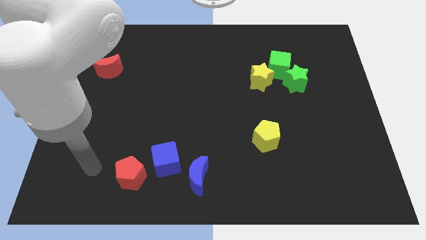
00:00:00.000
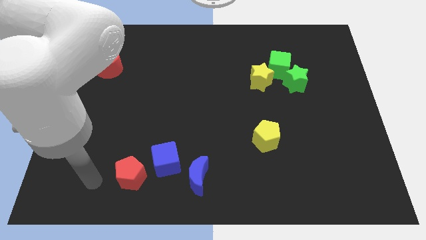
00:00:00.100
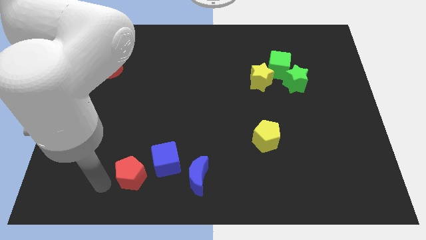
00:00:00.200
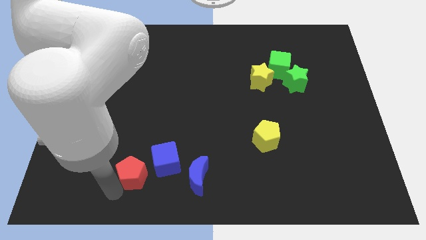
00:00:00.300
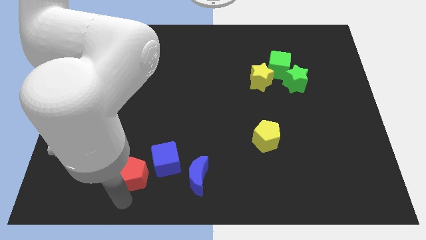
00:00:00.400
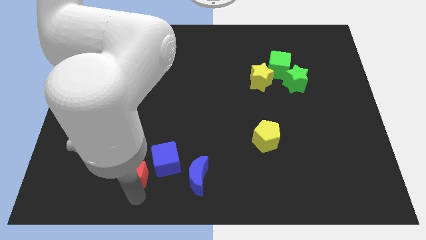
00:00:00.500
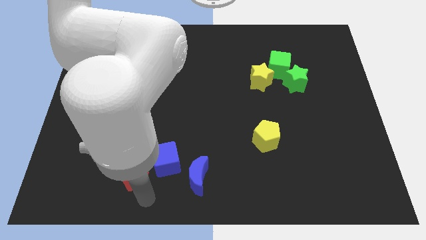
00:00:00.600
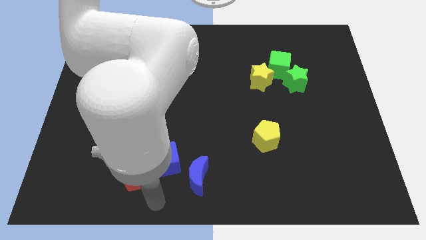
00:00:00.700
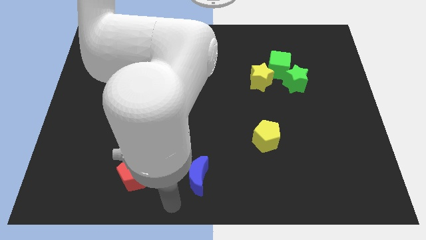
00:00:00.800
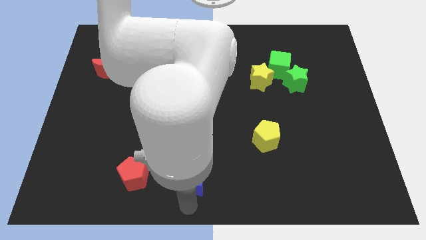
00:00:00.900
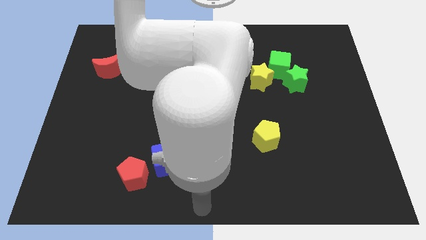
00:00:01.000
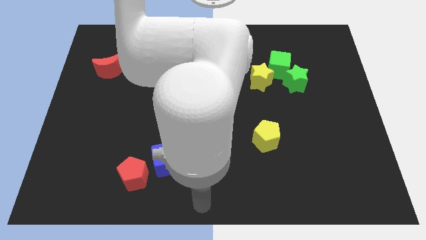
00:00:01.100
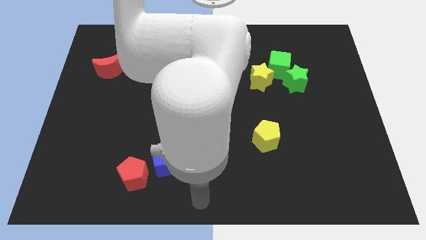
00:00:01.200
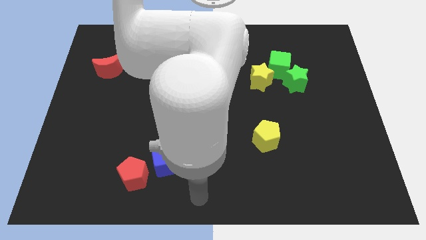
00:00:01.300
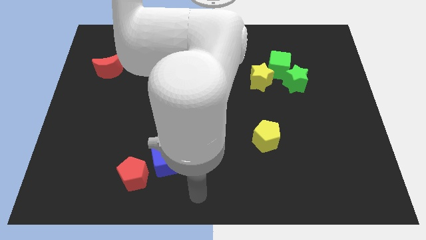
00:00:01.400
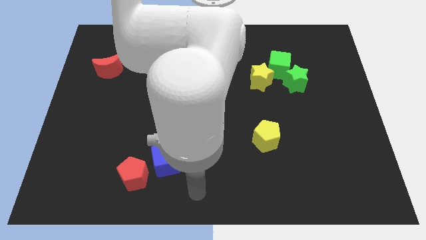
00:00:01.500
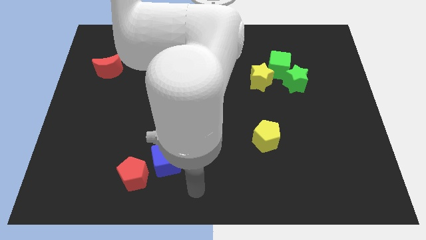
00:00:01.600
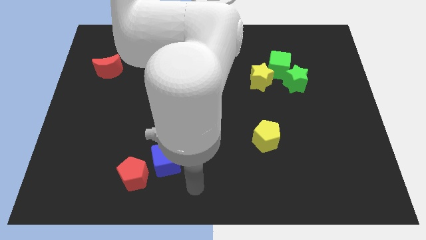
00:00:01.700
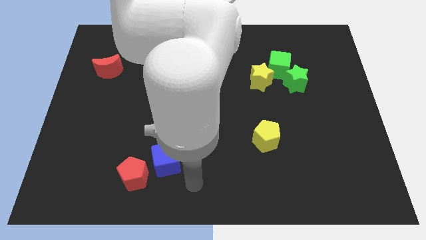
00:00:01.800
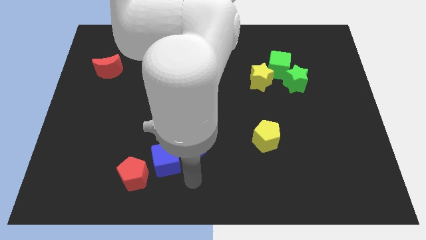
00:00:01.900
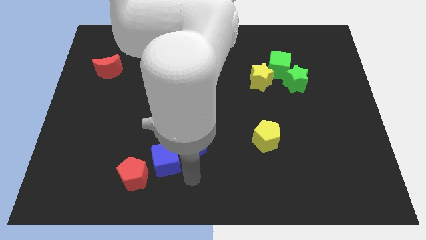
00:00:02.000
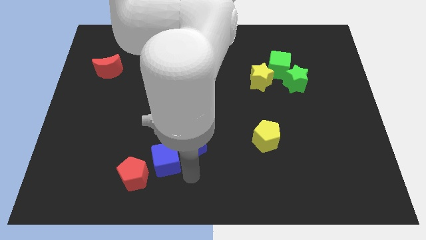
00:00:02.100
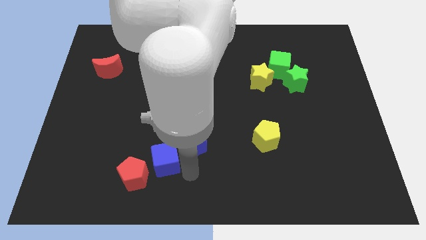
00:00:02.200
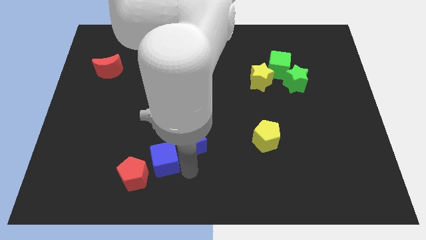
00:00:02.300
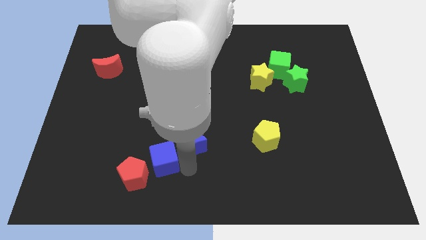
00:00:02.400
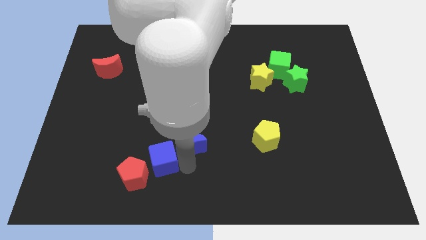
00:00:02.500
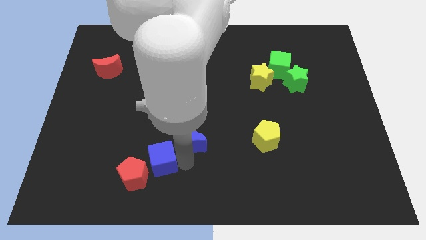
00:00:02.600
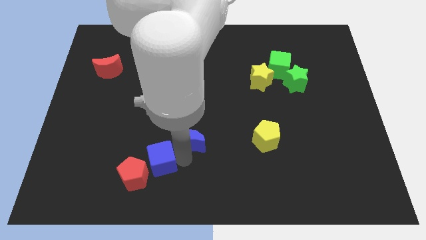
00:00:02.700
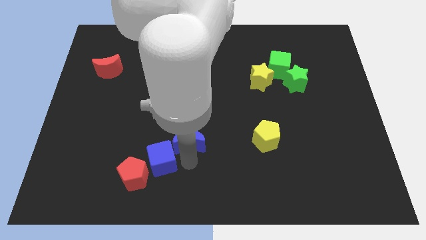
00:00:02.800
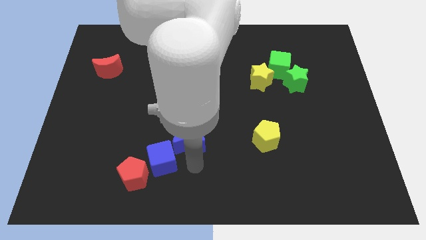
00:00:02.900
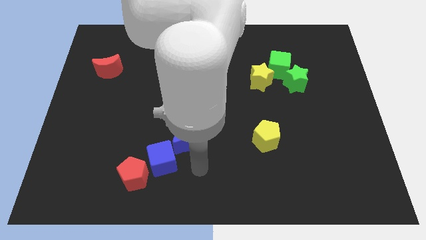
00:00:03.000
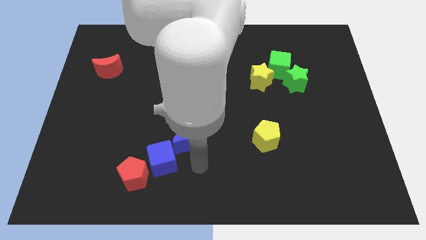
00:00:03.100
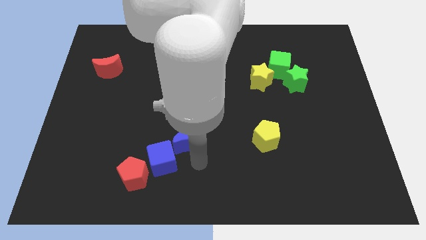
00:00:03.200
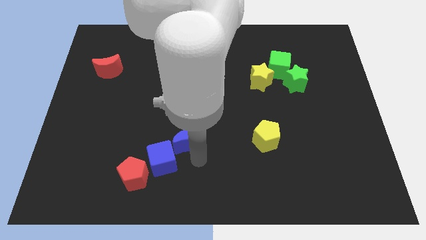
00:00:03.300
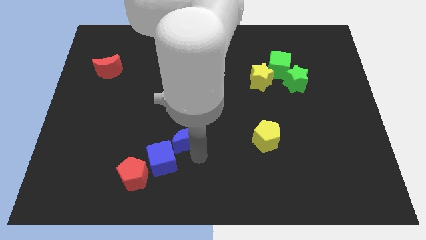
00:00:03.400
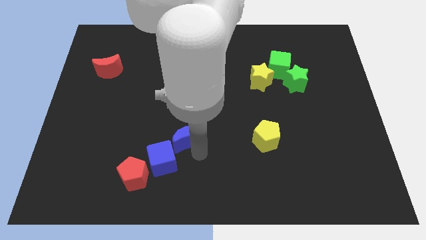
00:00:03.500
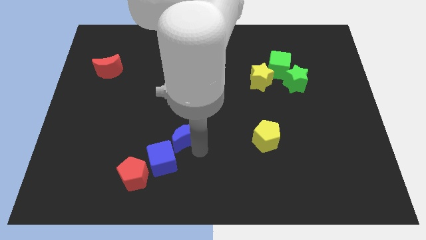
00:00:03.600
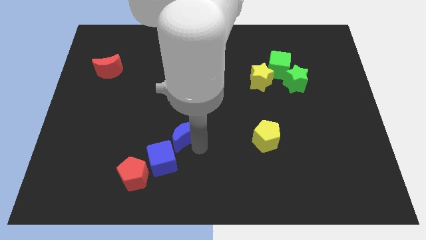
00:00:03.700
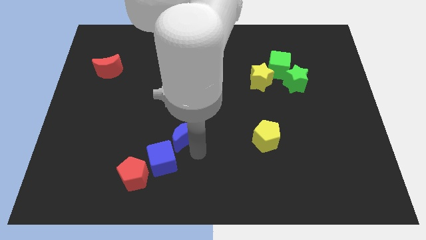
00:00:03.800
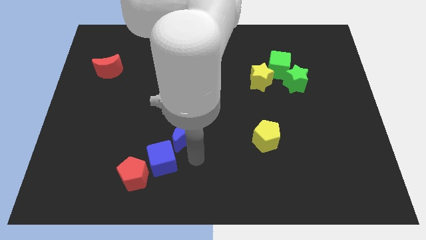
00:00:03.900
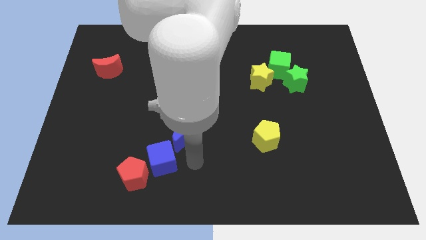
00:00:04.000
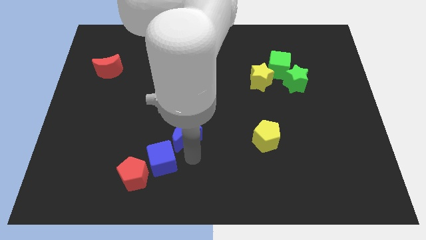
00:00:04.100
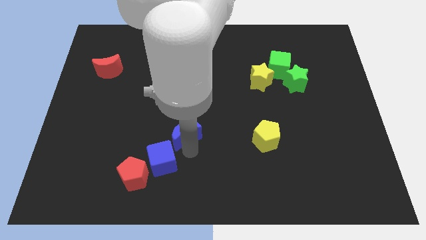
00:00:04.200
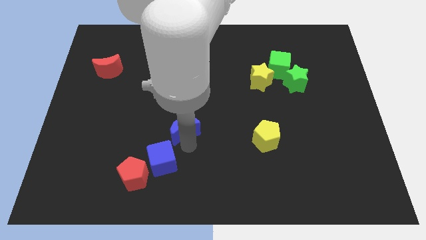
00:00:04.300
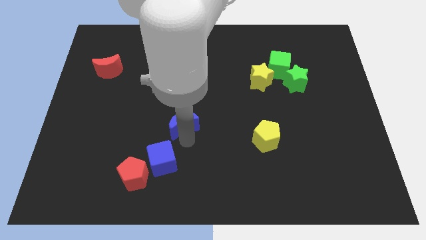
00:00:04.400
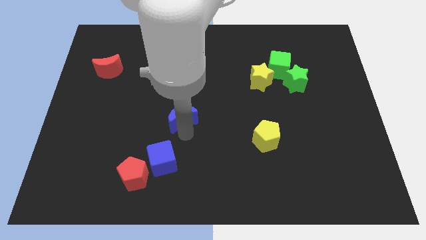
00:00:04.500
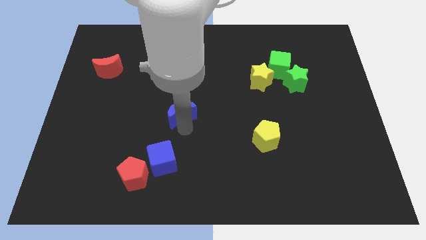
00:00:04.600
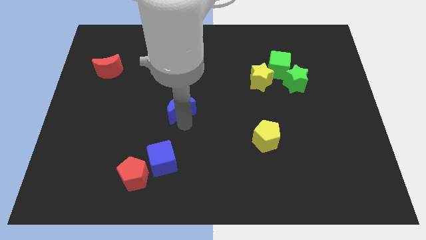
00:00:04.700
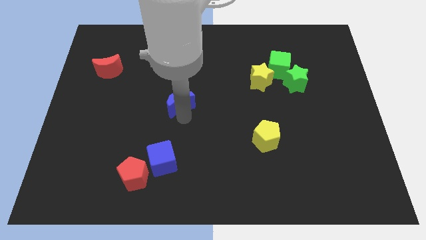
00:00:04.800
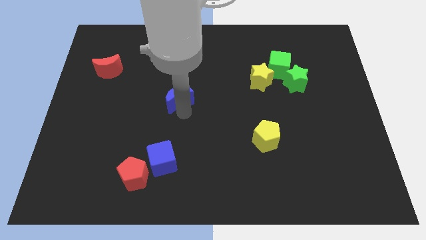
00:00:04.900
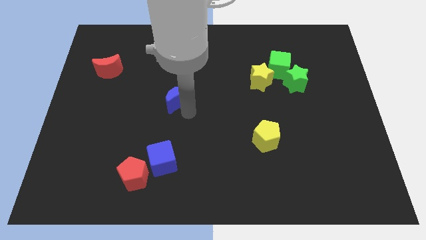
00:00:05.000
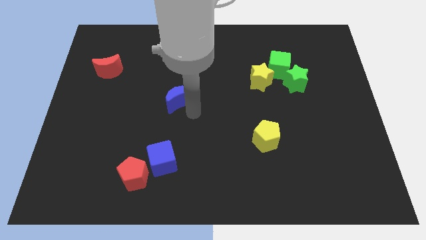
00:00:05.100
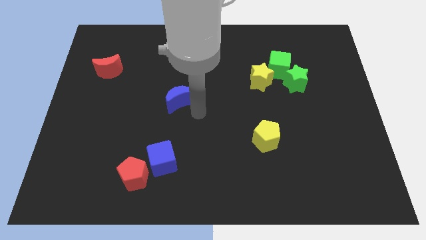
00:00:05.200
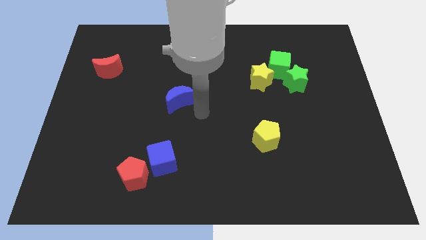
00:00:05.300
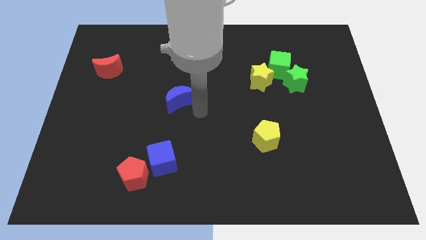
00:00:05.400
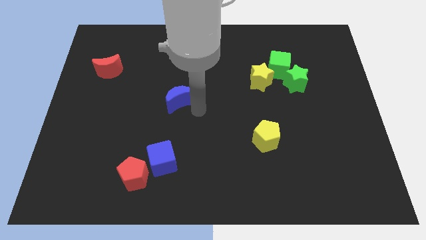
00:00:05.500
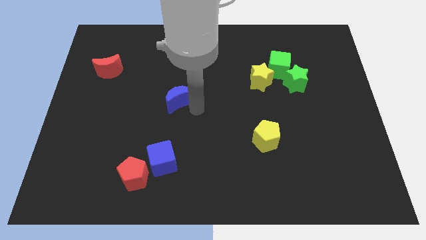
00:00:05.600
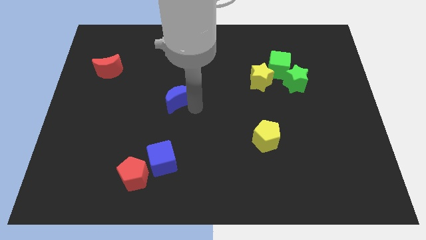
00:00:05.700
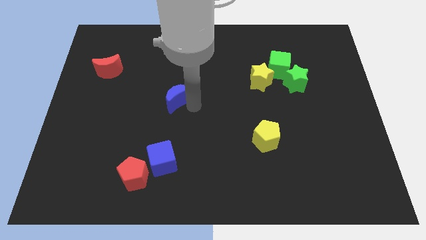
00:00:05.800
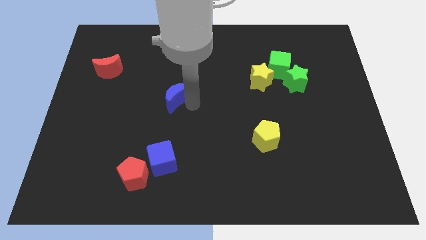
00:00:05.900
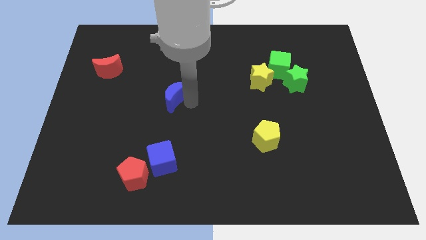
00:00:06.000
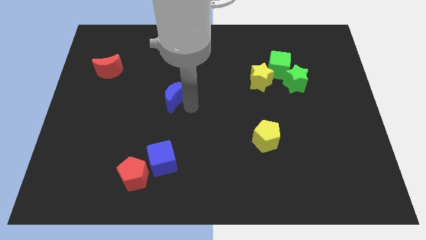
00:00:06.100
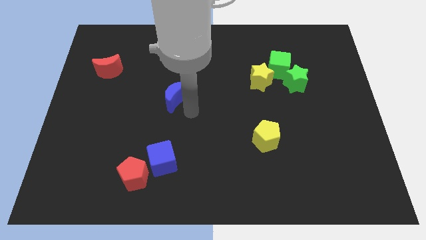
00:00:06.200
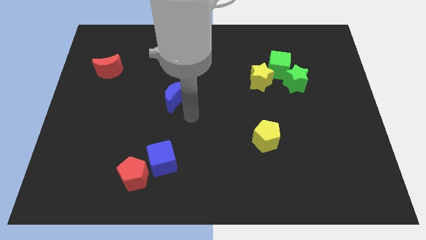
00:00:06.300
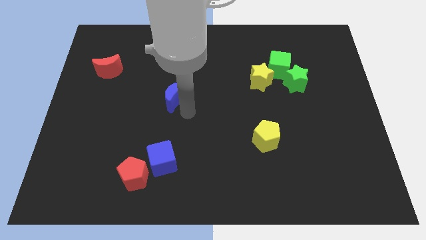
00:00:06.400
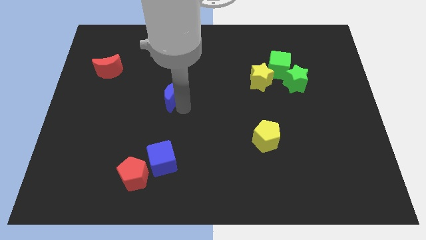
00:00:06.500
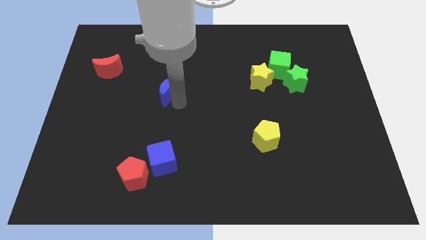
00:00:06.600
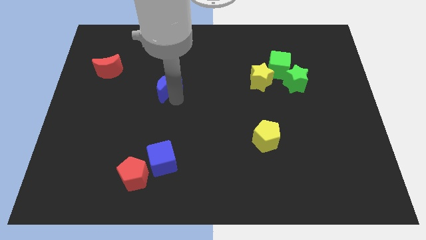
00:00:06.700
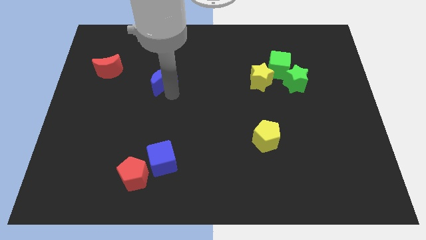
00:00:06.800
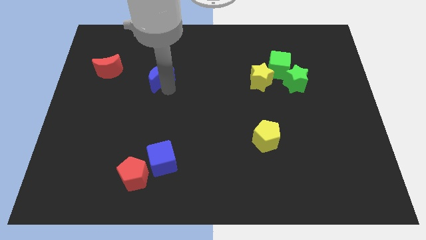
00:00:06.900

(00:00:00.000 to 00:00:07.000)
put the blue moon to the right side of the red moon
